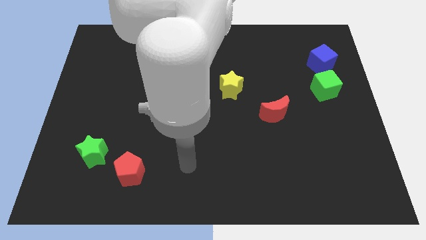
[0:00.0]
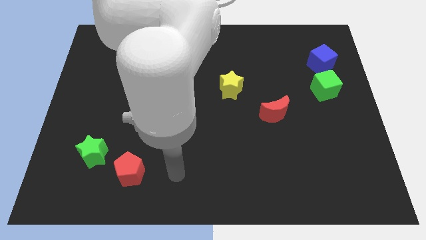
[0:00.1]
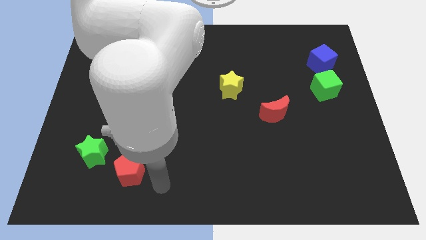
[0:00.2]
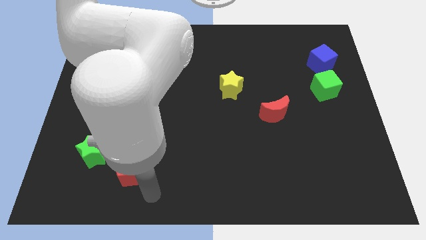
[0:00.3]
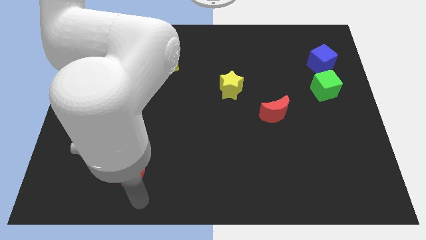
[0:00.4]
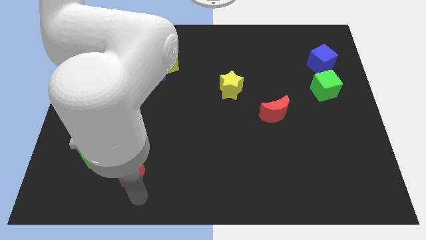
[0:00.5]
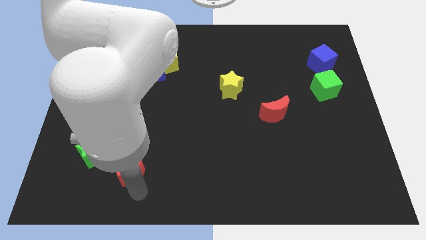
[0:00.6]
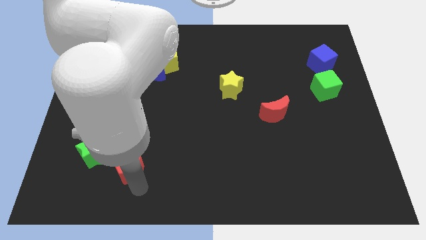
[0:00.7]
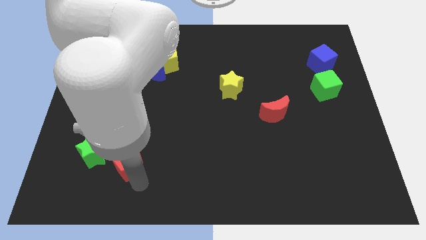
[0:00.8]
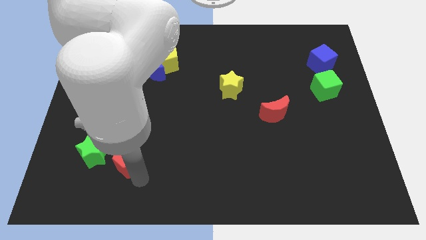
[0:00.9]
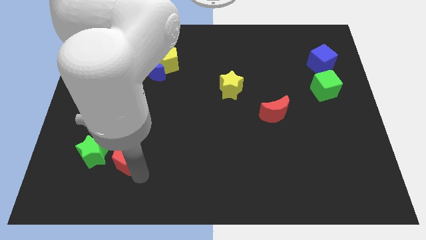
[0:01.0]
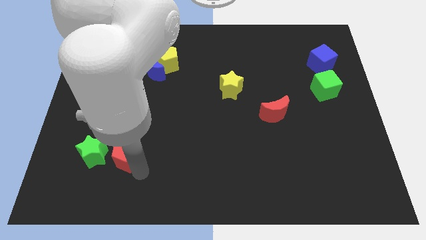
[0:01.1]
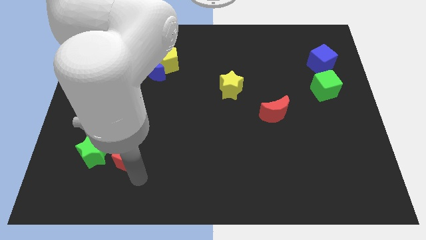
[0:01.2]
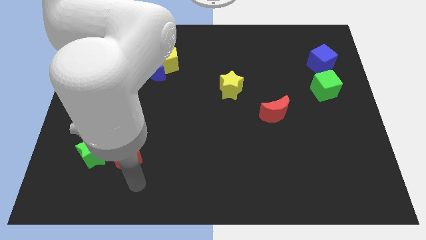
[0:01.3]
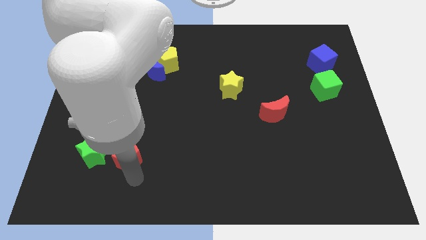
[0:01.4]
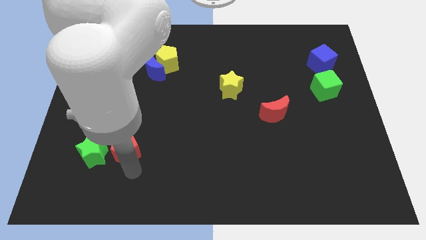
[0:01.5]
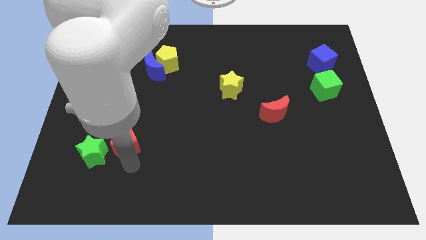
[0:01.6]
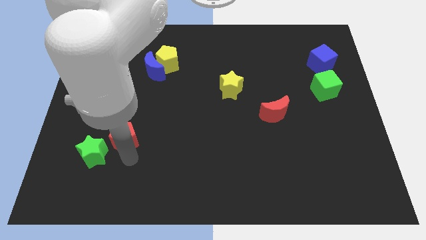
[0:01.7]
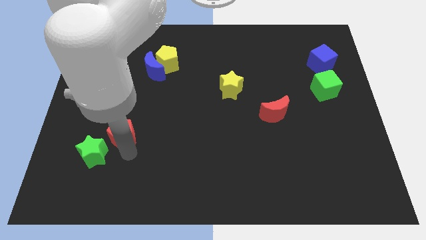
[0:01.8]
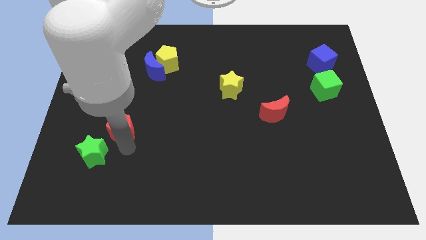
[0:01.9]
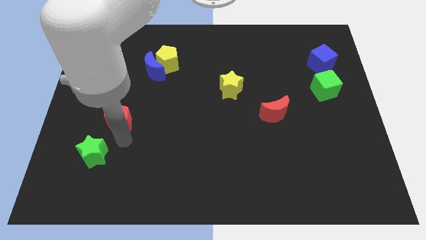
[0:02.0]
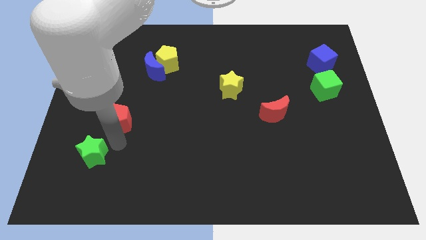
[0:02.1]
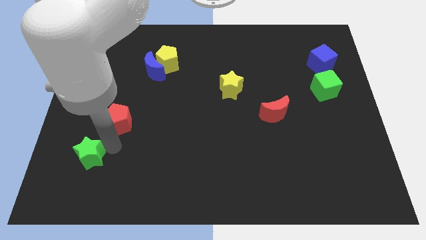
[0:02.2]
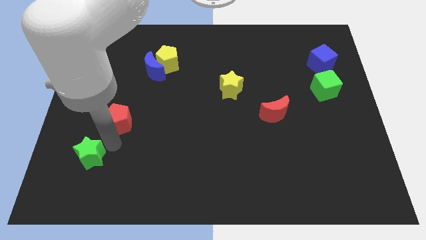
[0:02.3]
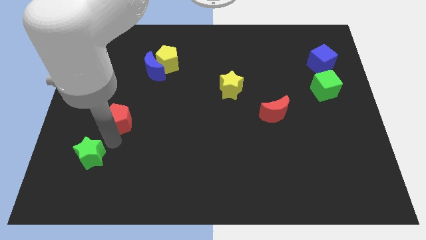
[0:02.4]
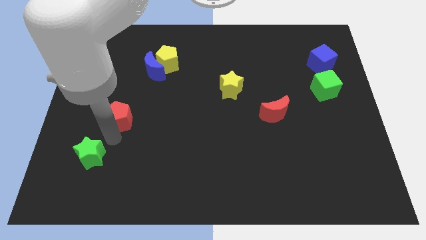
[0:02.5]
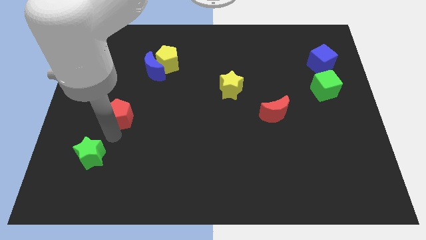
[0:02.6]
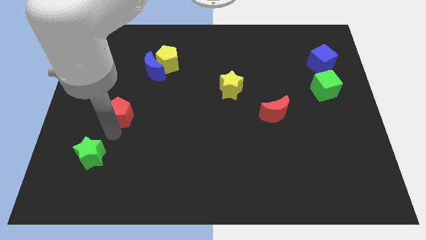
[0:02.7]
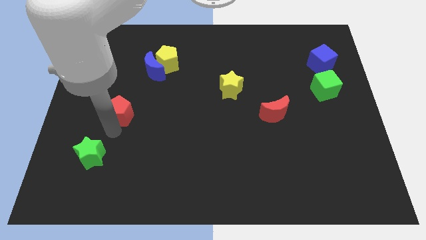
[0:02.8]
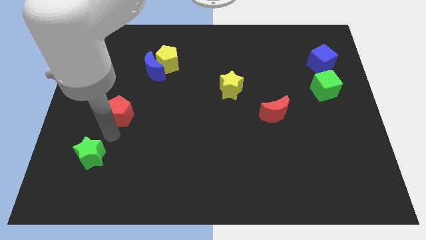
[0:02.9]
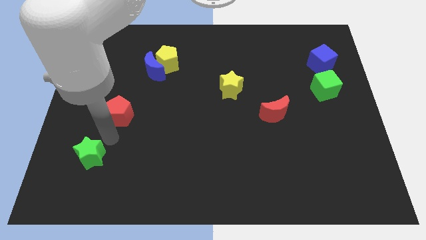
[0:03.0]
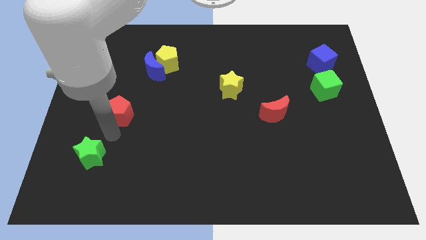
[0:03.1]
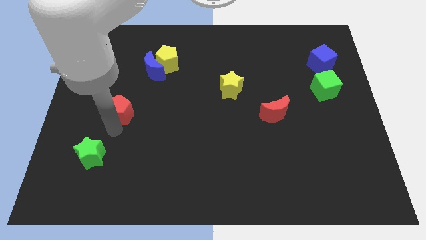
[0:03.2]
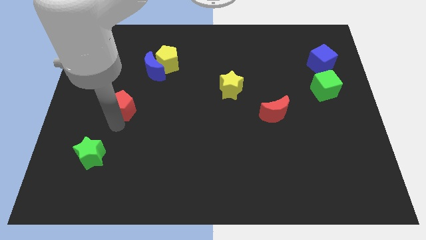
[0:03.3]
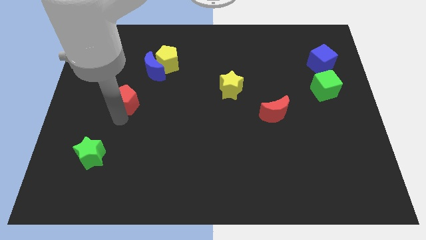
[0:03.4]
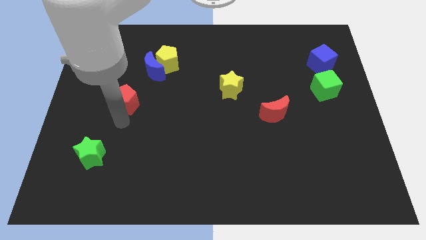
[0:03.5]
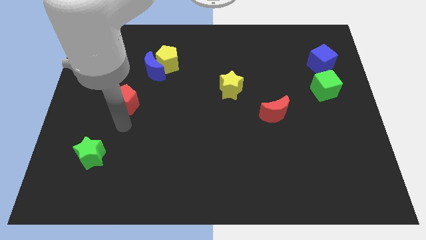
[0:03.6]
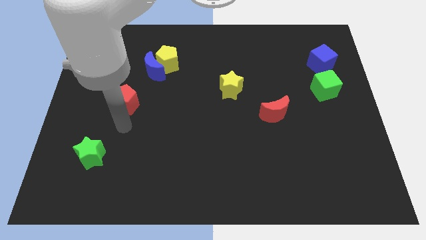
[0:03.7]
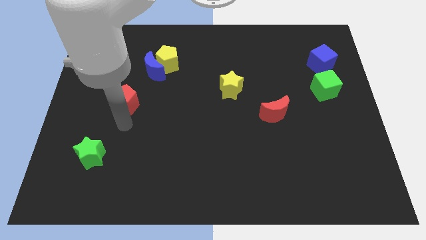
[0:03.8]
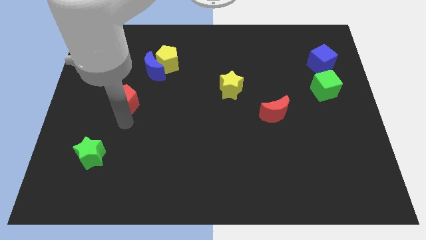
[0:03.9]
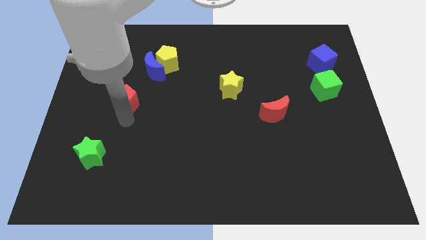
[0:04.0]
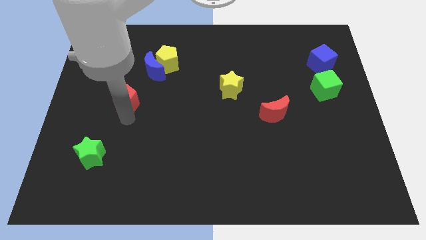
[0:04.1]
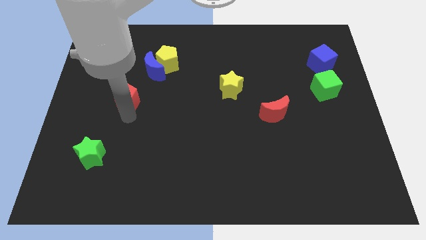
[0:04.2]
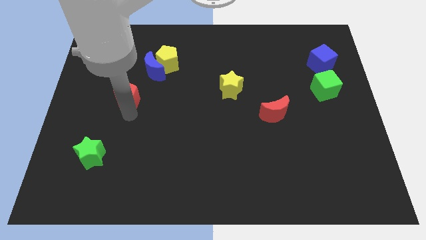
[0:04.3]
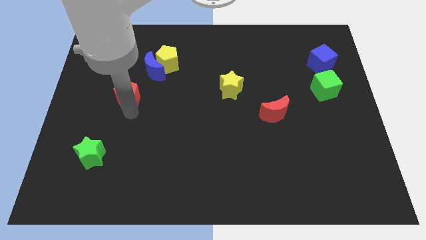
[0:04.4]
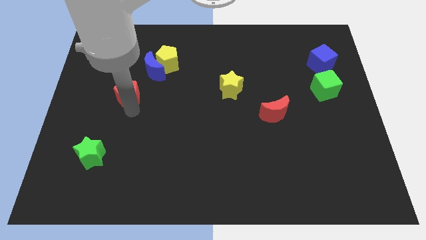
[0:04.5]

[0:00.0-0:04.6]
slide the red pentagon up

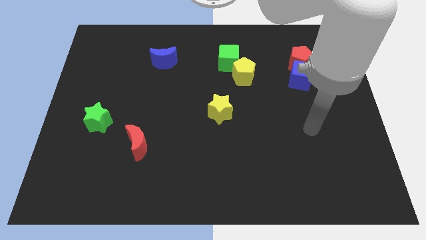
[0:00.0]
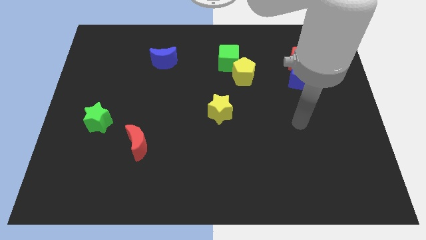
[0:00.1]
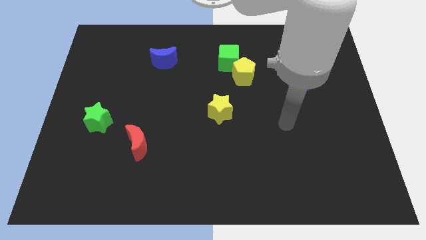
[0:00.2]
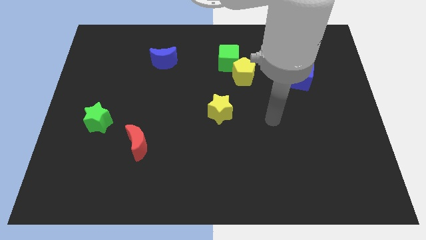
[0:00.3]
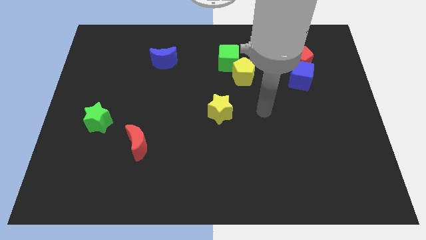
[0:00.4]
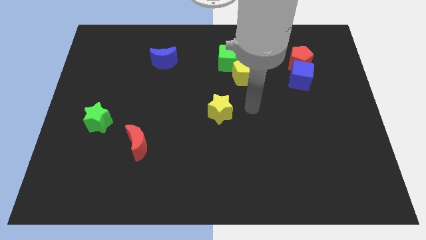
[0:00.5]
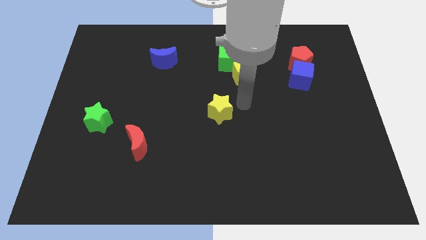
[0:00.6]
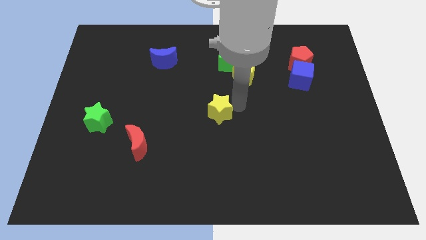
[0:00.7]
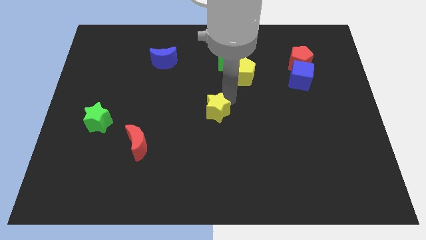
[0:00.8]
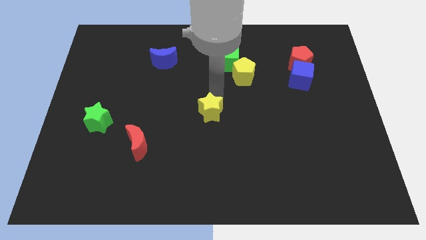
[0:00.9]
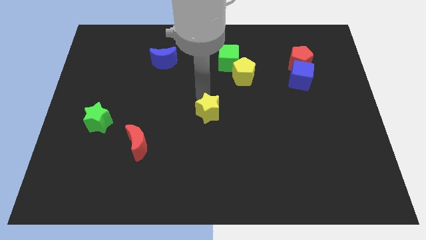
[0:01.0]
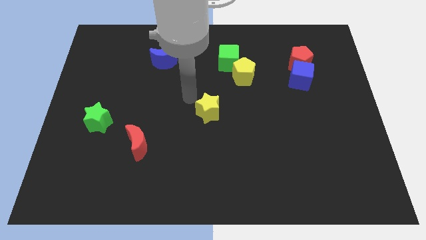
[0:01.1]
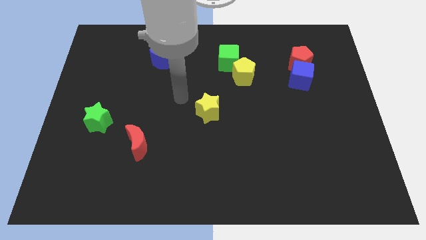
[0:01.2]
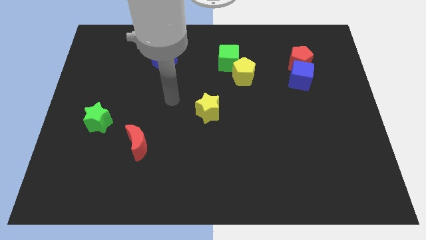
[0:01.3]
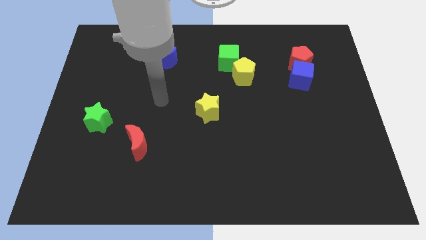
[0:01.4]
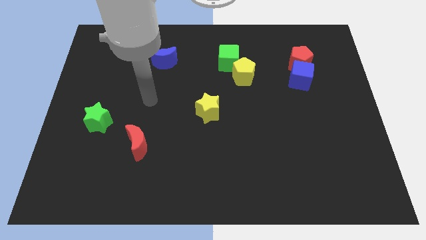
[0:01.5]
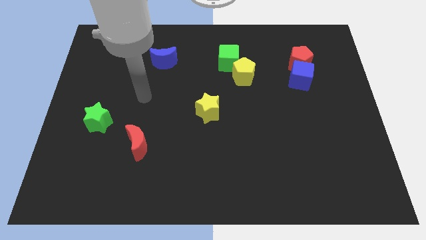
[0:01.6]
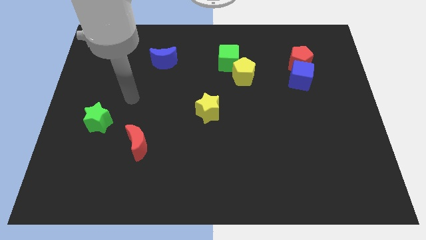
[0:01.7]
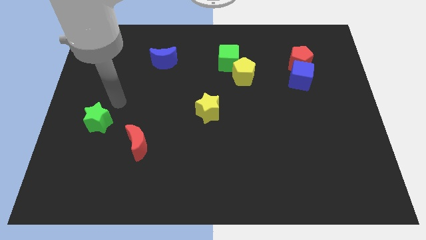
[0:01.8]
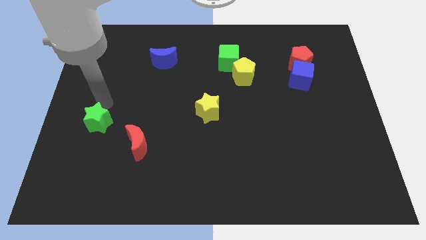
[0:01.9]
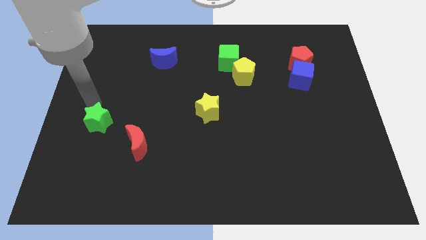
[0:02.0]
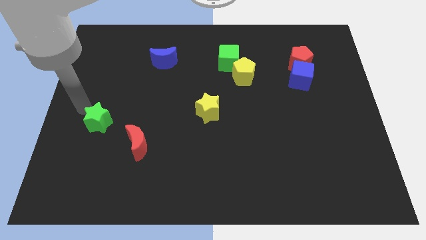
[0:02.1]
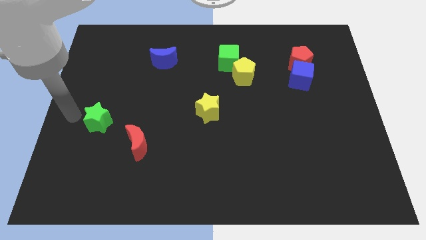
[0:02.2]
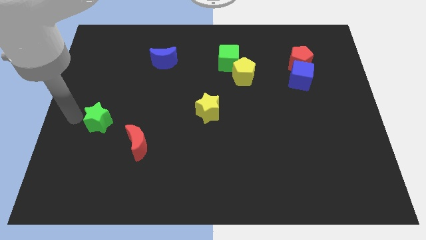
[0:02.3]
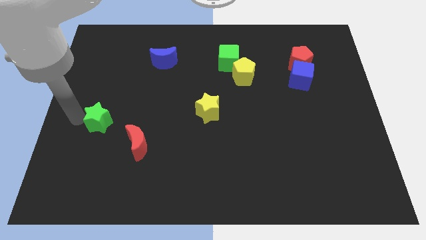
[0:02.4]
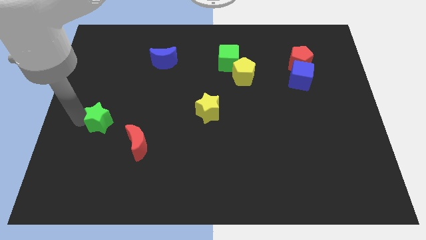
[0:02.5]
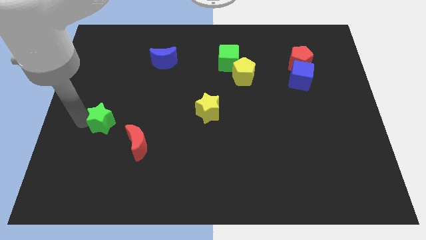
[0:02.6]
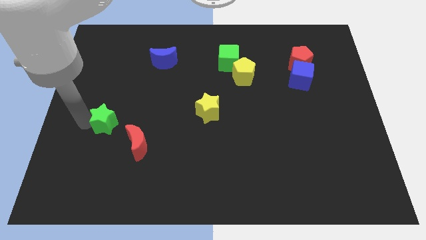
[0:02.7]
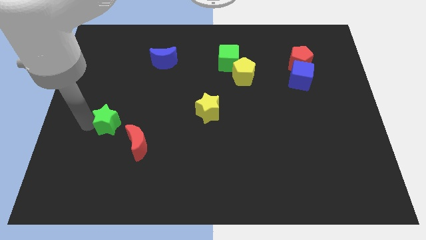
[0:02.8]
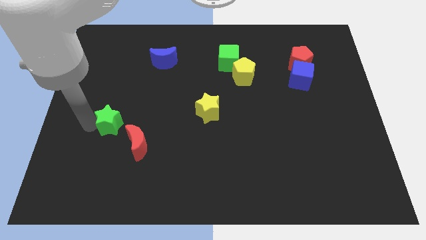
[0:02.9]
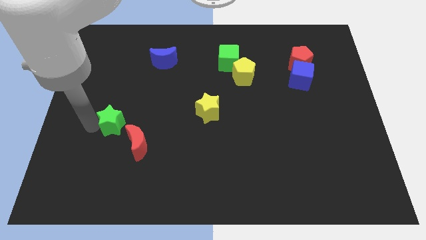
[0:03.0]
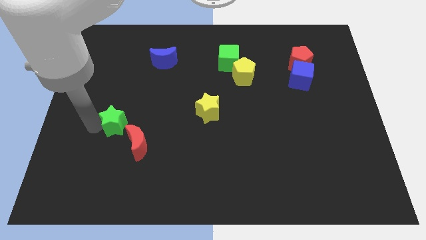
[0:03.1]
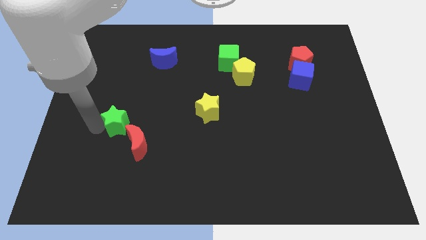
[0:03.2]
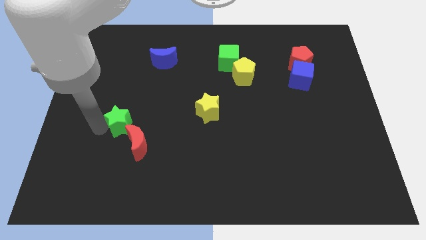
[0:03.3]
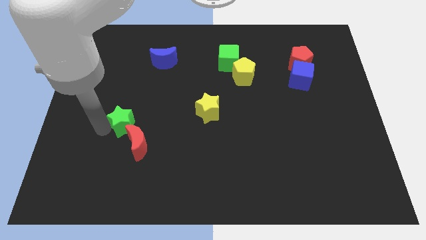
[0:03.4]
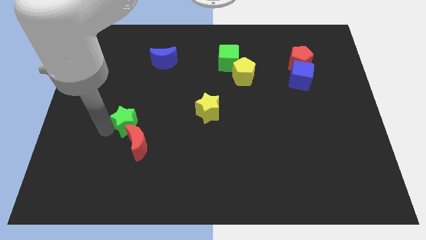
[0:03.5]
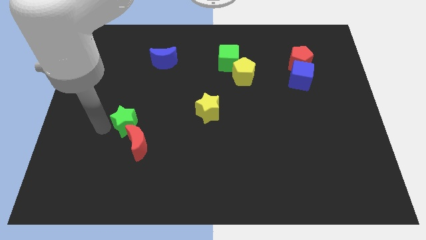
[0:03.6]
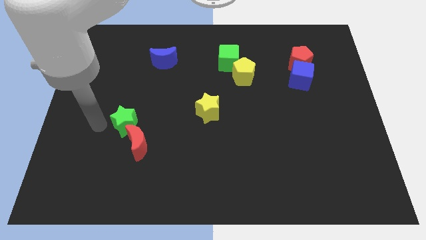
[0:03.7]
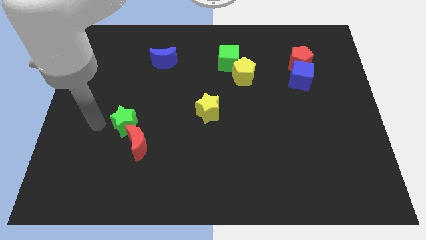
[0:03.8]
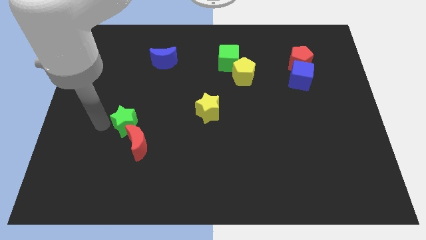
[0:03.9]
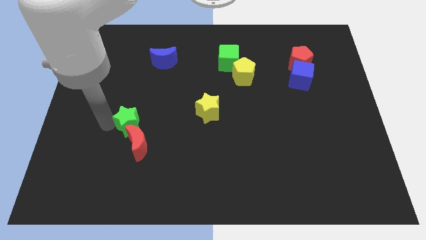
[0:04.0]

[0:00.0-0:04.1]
slightly move the green star to the right
